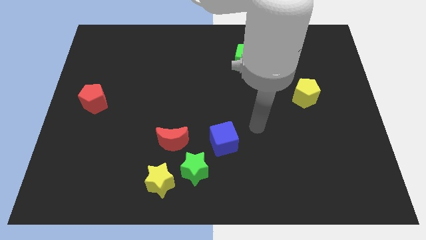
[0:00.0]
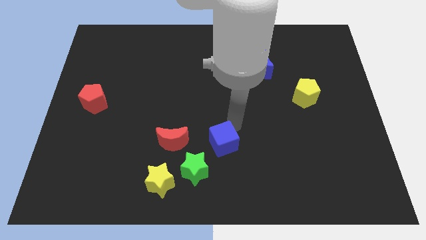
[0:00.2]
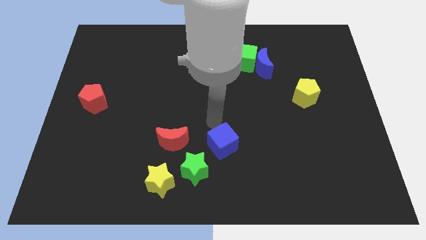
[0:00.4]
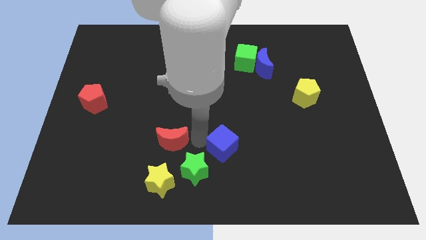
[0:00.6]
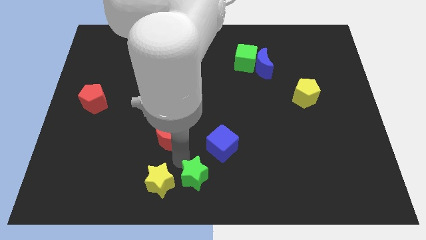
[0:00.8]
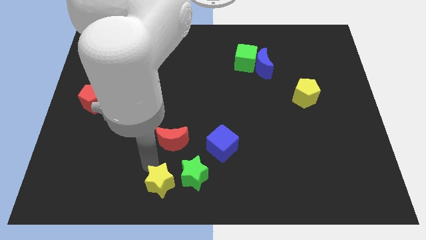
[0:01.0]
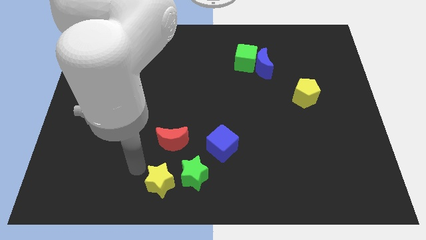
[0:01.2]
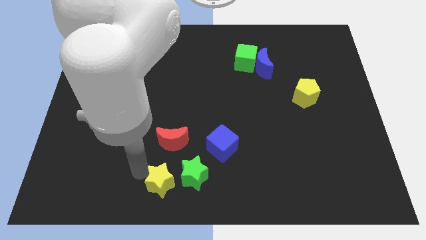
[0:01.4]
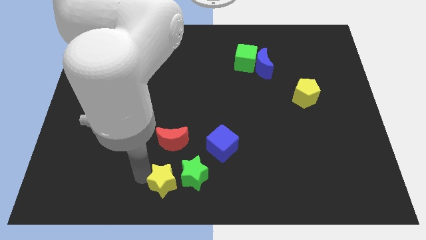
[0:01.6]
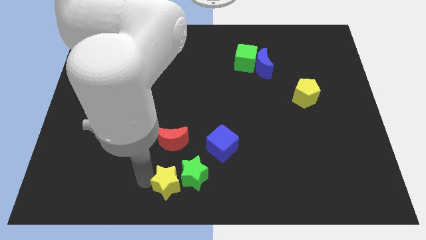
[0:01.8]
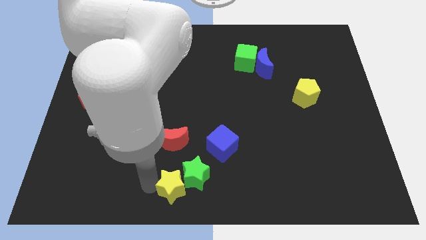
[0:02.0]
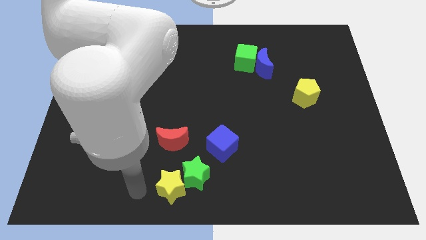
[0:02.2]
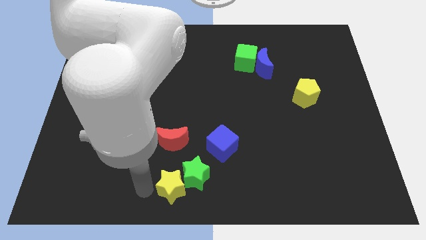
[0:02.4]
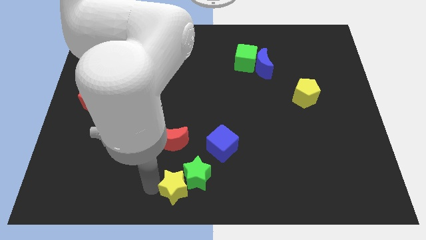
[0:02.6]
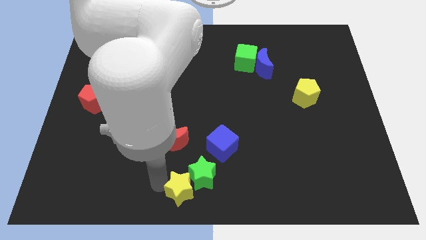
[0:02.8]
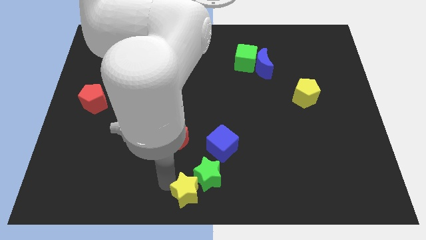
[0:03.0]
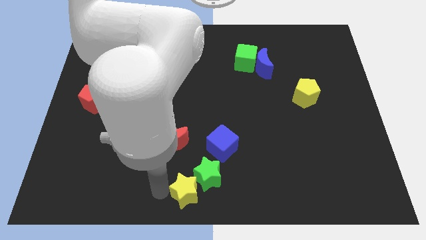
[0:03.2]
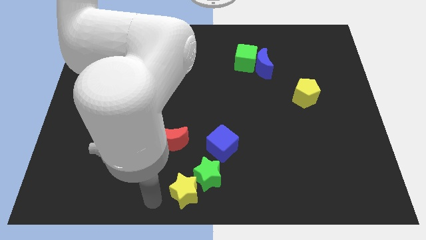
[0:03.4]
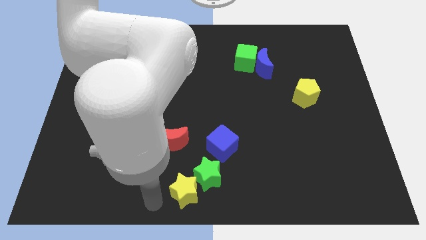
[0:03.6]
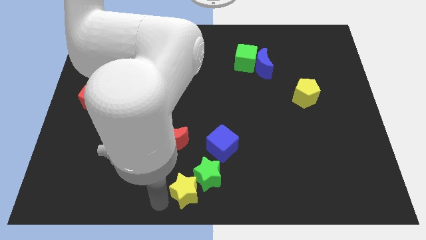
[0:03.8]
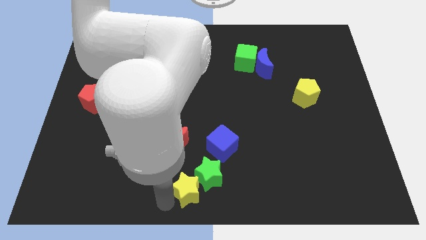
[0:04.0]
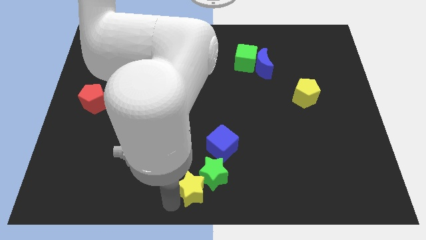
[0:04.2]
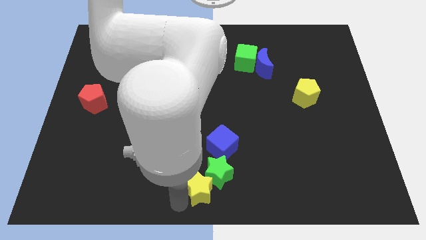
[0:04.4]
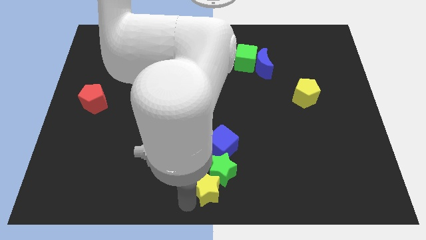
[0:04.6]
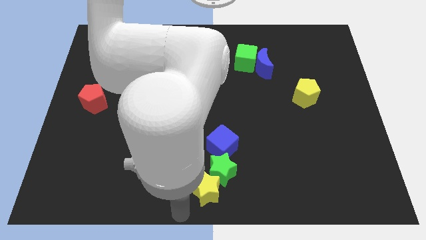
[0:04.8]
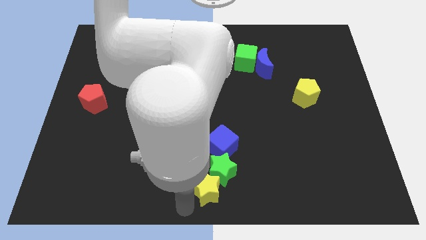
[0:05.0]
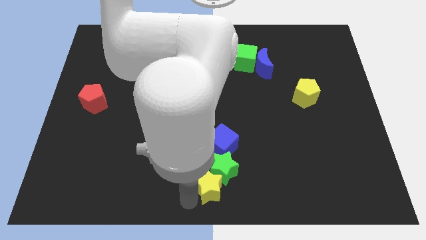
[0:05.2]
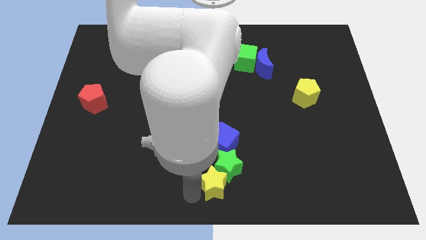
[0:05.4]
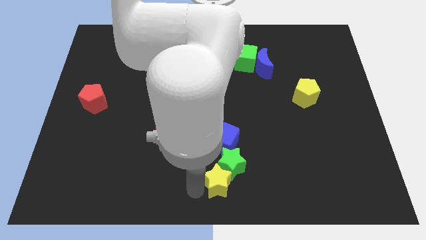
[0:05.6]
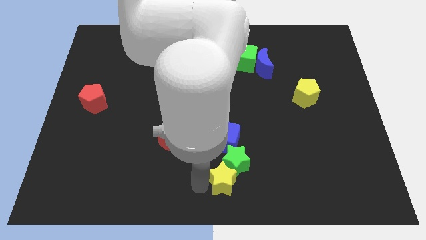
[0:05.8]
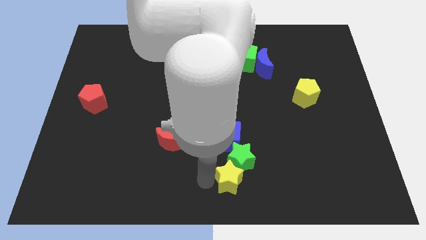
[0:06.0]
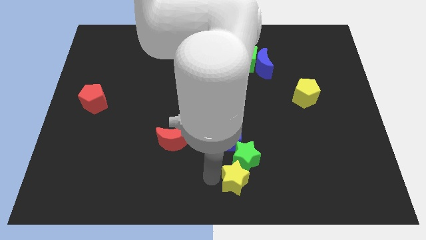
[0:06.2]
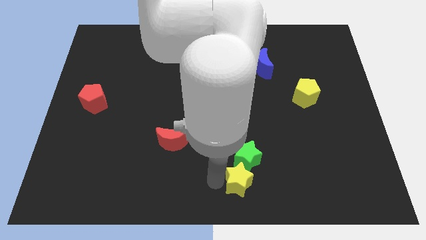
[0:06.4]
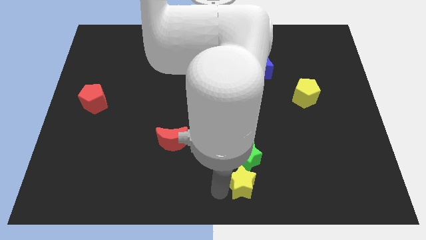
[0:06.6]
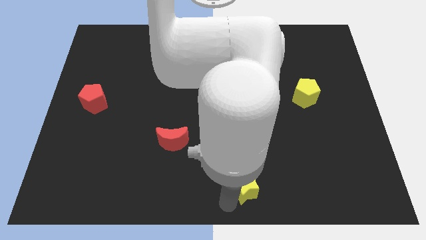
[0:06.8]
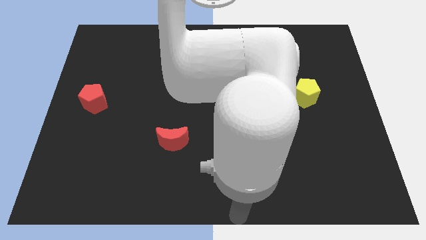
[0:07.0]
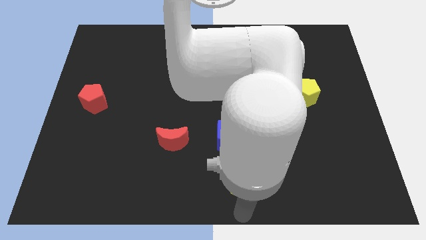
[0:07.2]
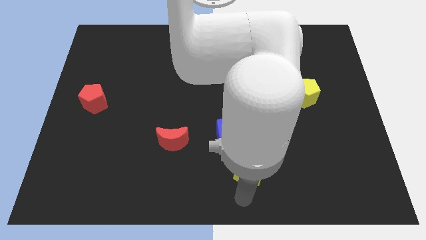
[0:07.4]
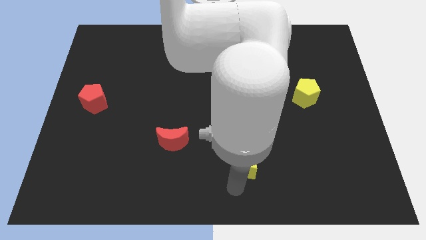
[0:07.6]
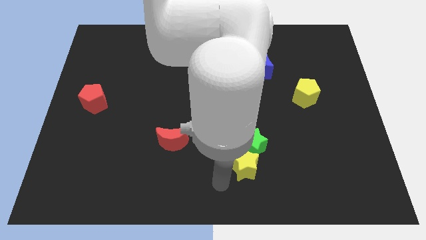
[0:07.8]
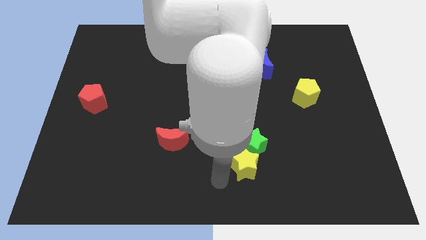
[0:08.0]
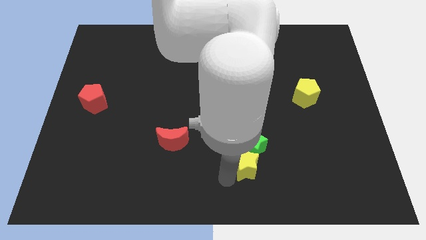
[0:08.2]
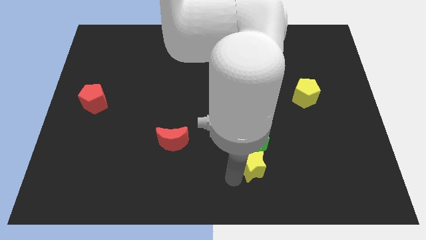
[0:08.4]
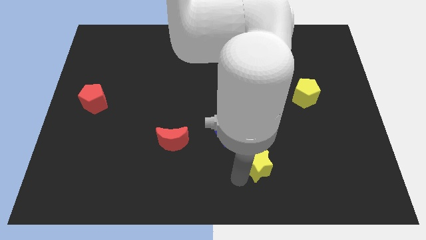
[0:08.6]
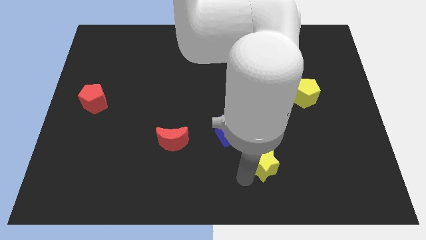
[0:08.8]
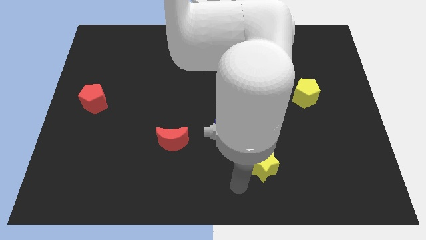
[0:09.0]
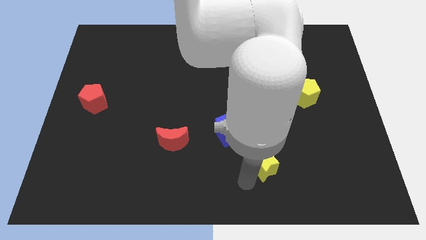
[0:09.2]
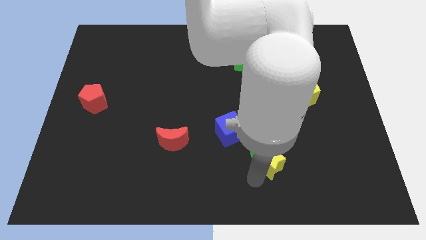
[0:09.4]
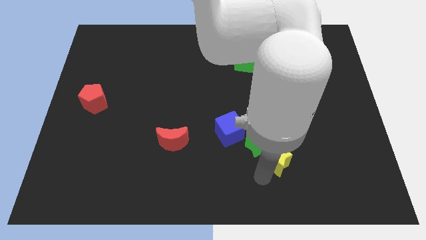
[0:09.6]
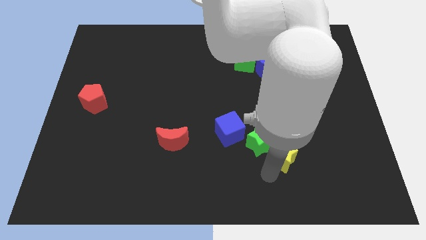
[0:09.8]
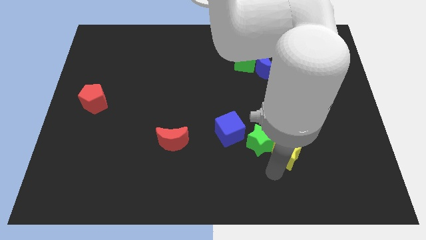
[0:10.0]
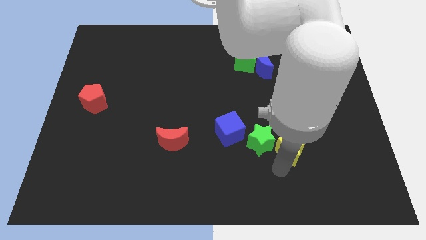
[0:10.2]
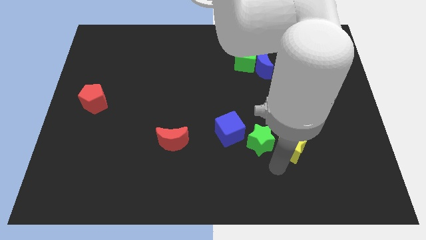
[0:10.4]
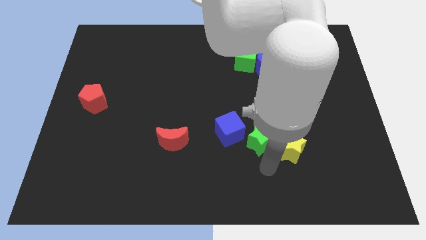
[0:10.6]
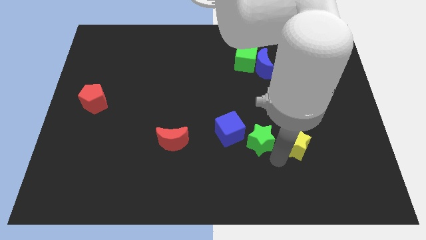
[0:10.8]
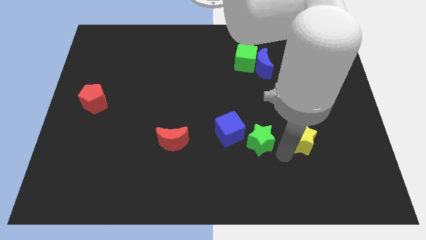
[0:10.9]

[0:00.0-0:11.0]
move the yellow star to the bottom side of the yellow pentagon

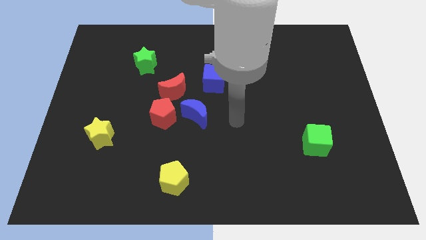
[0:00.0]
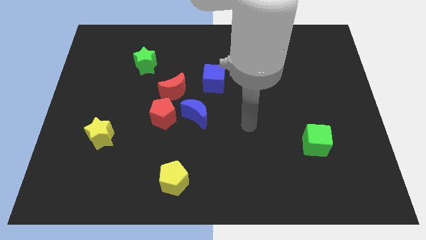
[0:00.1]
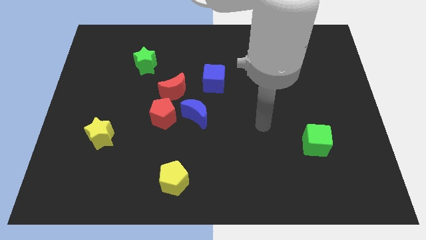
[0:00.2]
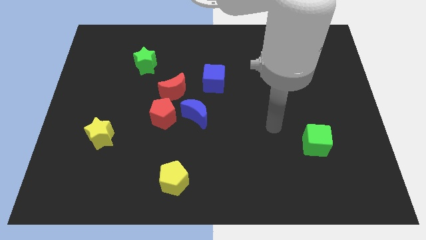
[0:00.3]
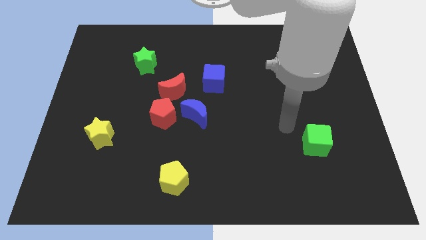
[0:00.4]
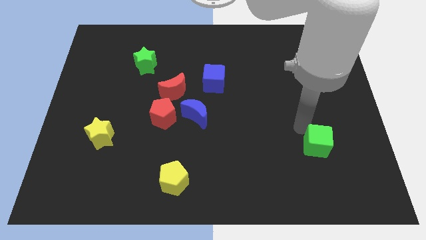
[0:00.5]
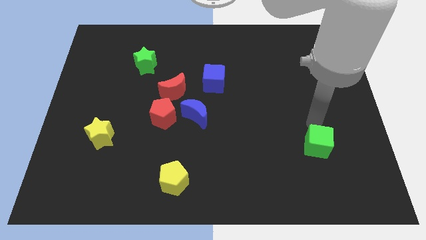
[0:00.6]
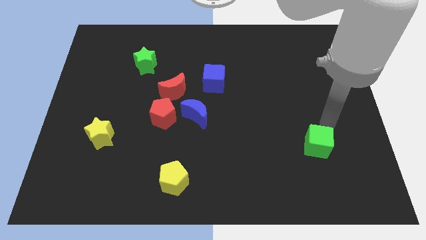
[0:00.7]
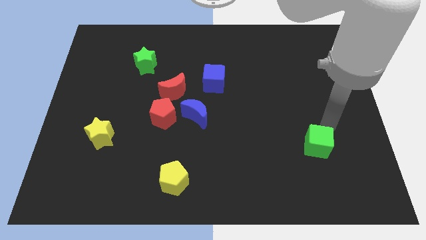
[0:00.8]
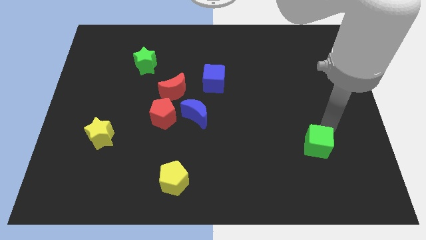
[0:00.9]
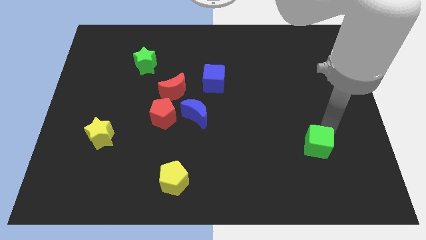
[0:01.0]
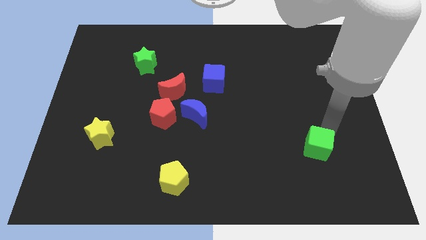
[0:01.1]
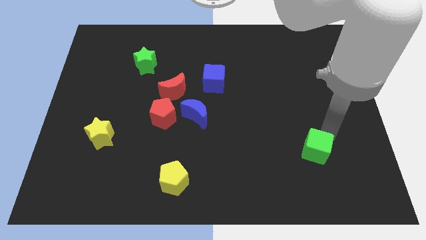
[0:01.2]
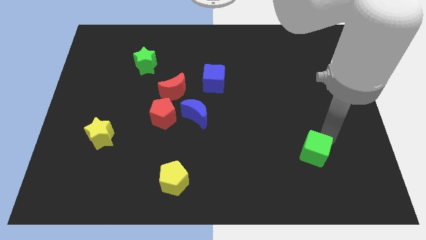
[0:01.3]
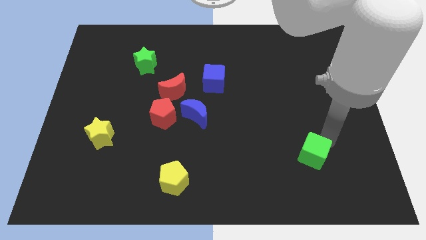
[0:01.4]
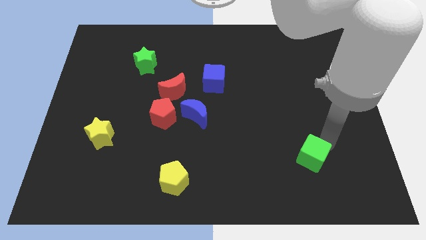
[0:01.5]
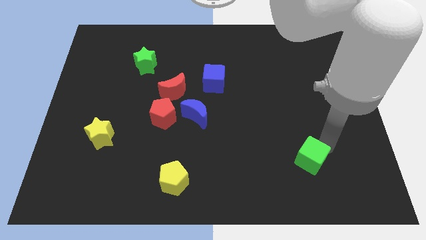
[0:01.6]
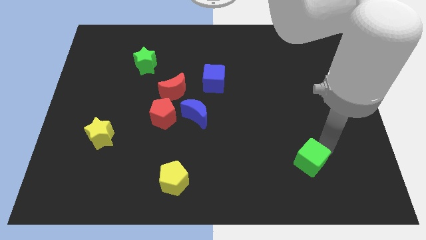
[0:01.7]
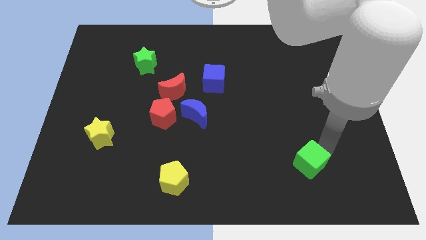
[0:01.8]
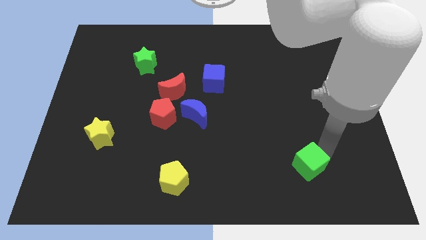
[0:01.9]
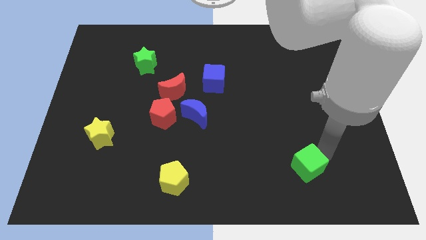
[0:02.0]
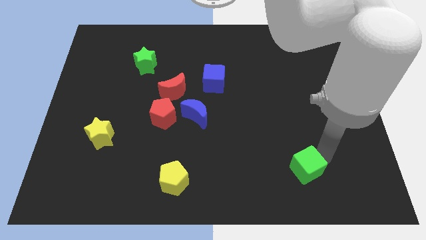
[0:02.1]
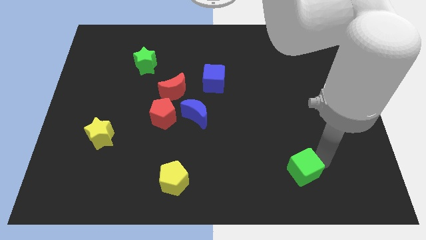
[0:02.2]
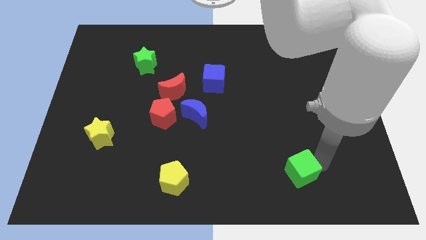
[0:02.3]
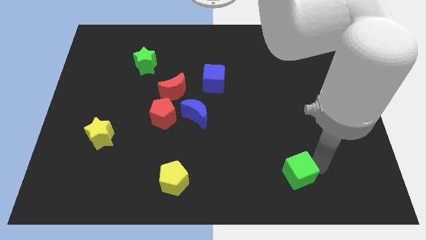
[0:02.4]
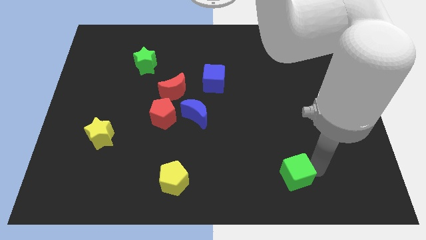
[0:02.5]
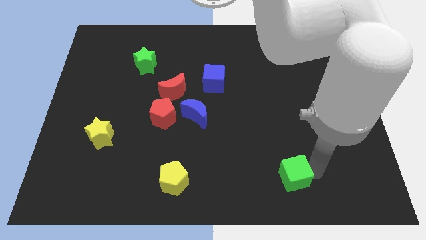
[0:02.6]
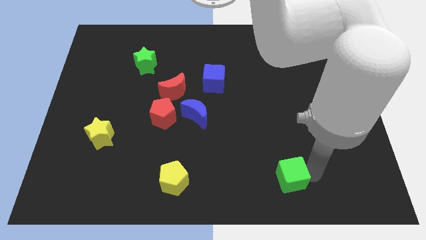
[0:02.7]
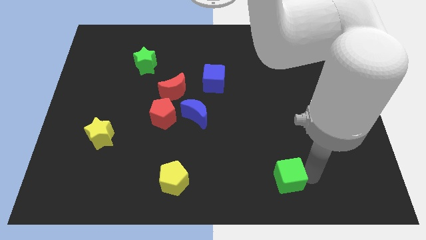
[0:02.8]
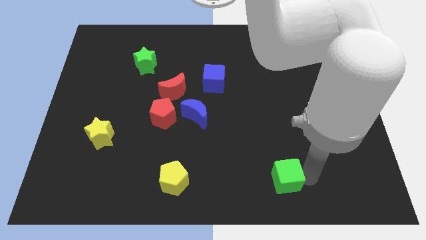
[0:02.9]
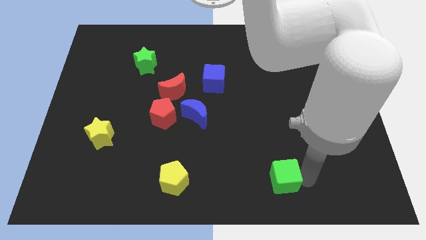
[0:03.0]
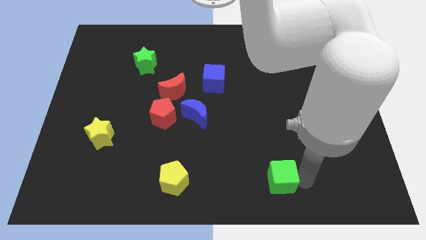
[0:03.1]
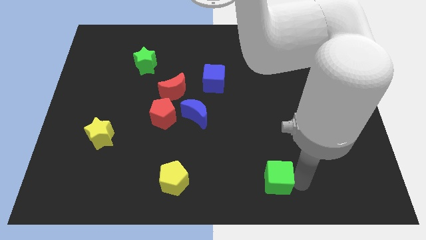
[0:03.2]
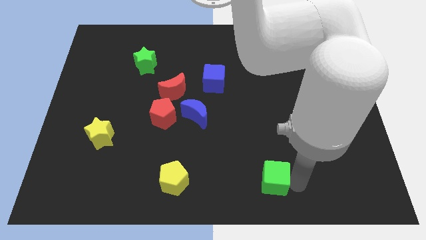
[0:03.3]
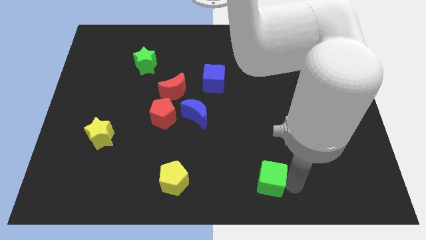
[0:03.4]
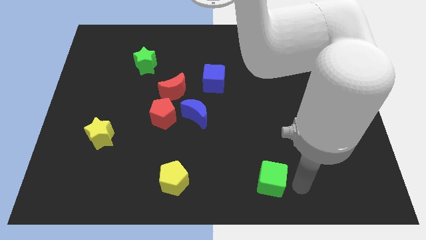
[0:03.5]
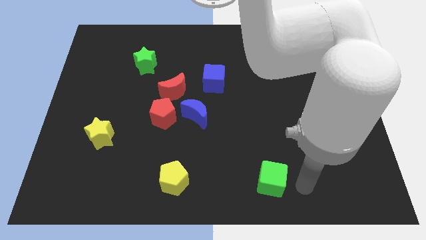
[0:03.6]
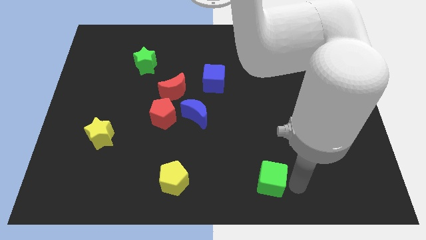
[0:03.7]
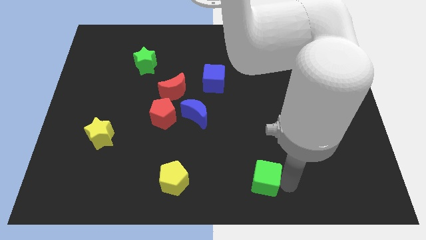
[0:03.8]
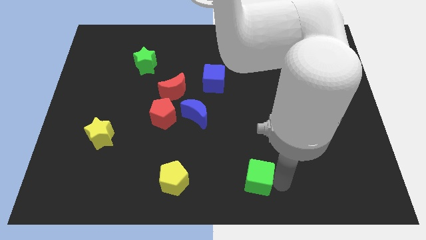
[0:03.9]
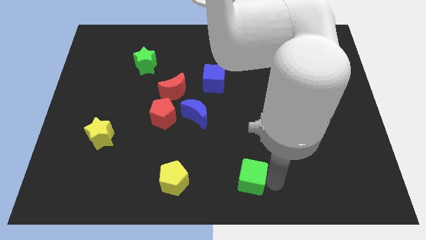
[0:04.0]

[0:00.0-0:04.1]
push the green cube right of the yellow pentagon
